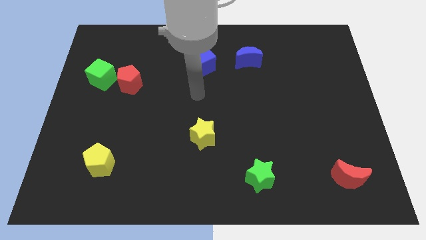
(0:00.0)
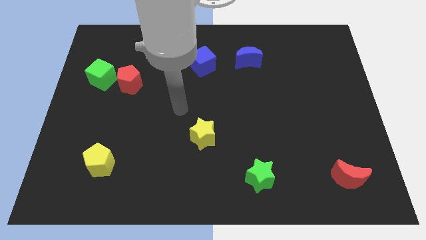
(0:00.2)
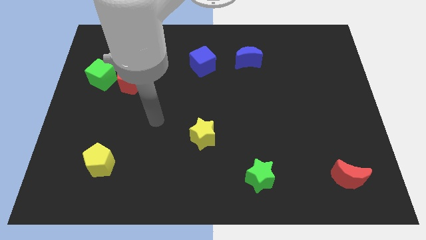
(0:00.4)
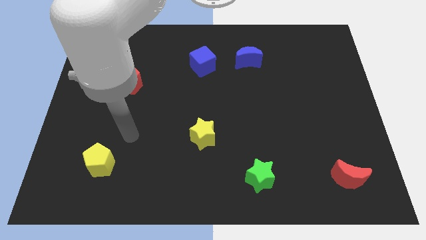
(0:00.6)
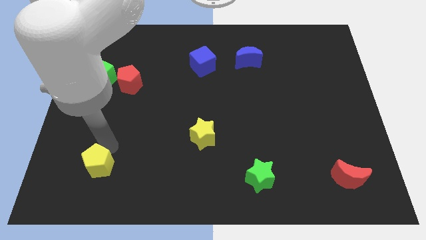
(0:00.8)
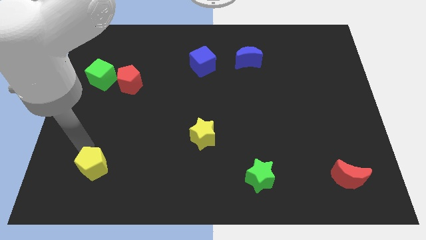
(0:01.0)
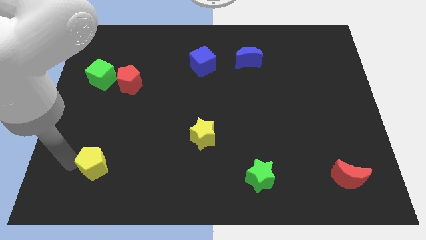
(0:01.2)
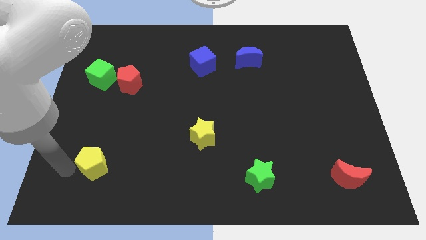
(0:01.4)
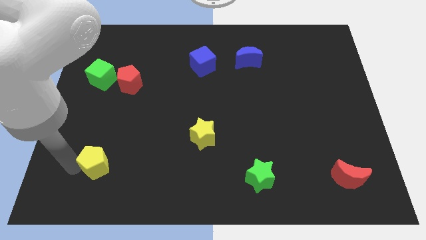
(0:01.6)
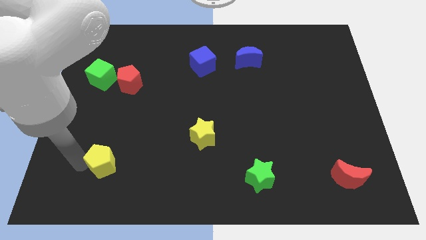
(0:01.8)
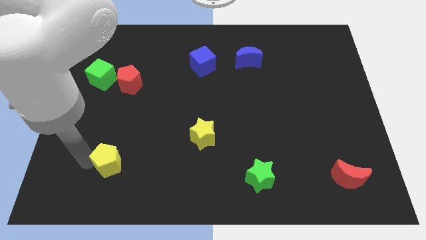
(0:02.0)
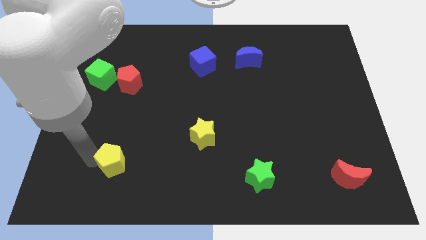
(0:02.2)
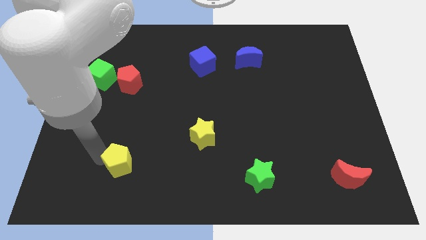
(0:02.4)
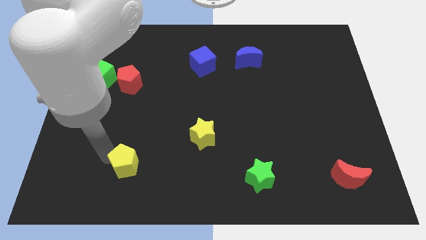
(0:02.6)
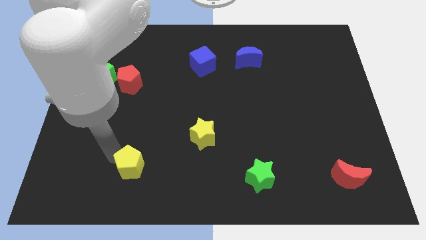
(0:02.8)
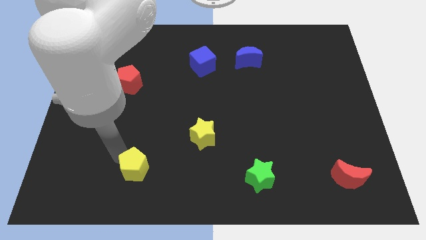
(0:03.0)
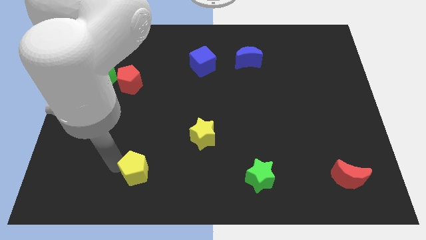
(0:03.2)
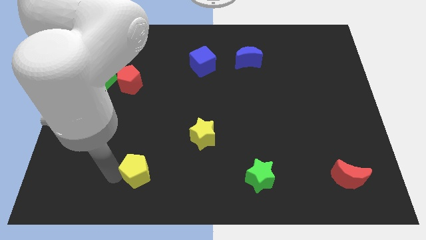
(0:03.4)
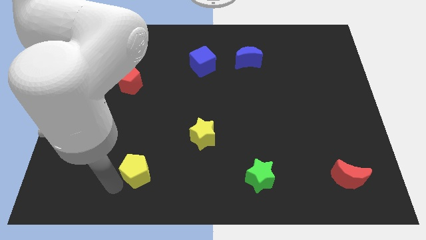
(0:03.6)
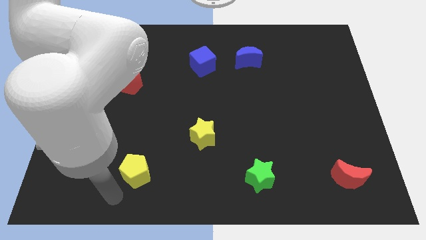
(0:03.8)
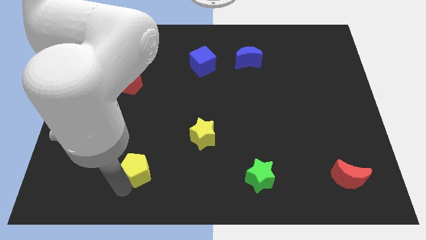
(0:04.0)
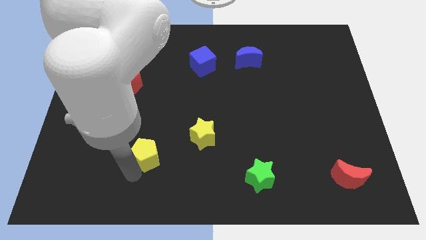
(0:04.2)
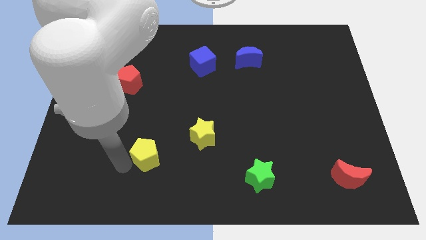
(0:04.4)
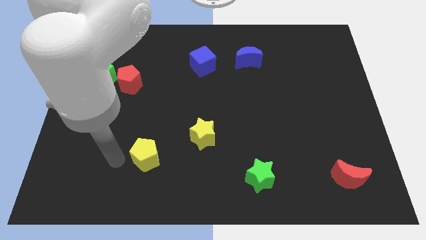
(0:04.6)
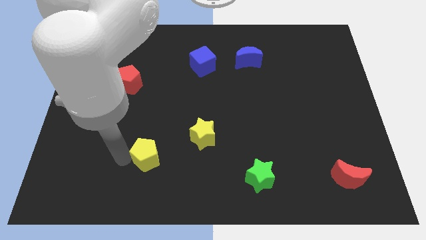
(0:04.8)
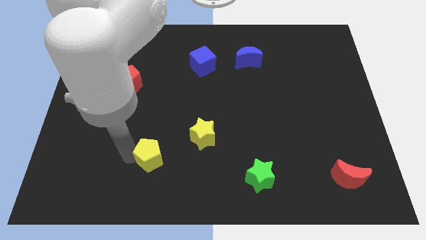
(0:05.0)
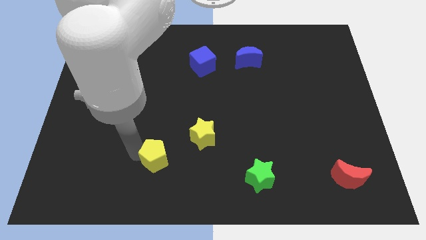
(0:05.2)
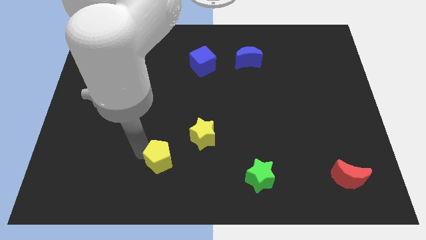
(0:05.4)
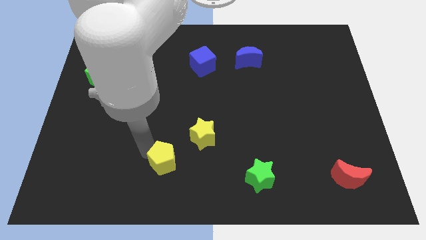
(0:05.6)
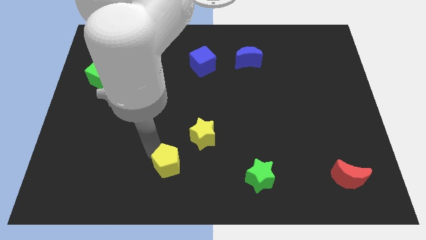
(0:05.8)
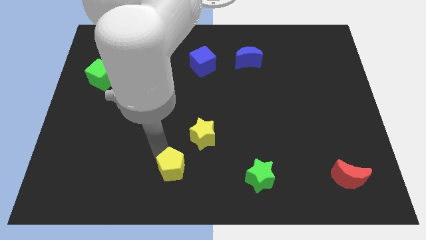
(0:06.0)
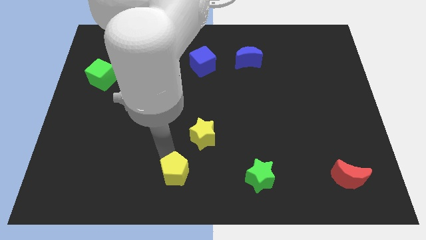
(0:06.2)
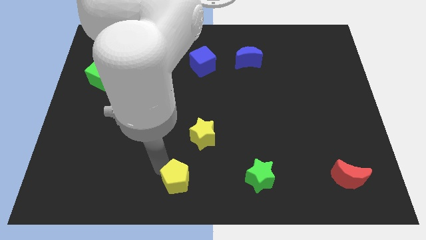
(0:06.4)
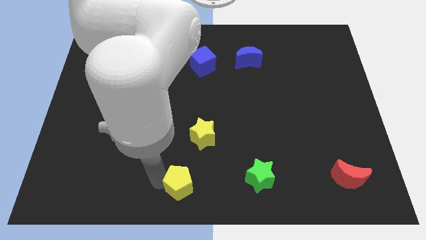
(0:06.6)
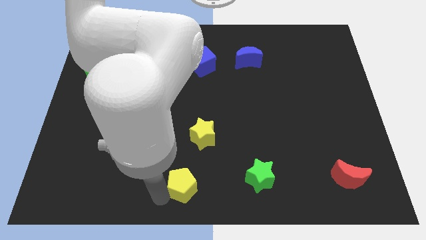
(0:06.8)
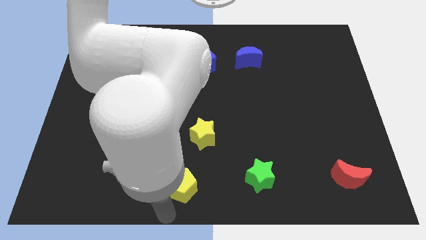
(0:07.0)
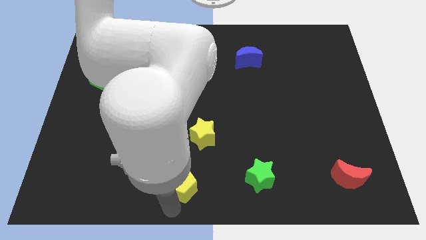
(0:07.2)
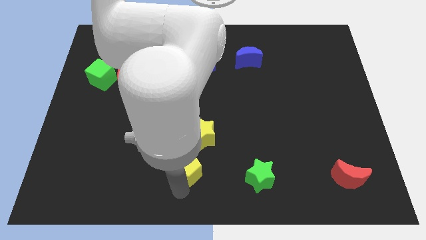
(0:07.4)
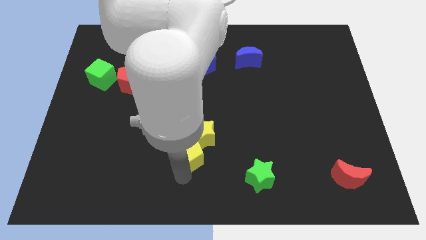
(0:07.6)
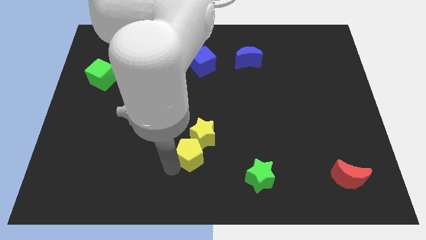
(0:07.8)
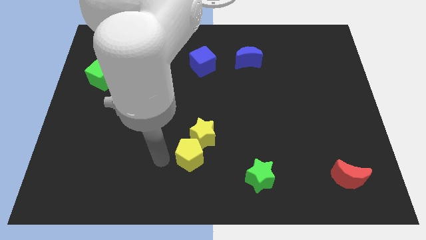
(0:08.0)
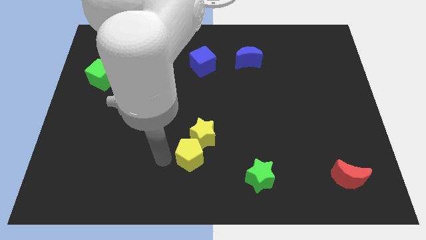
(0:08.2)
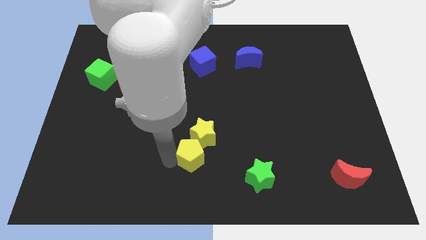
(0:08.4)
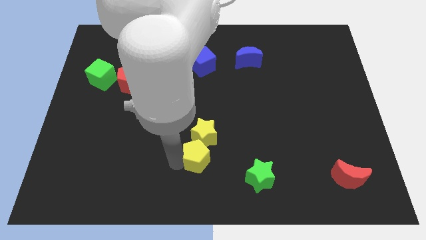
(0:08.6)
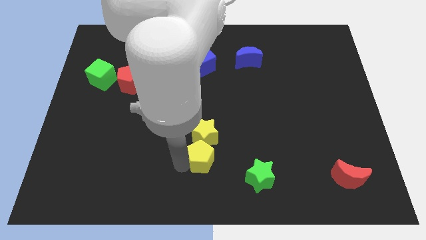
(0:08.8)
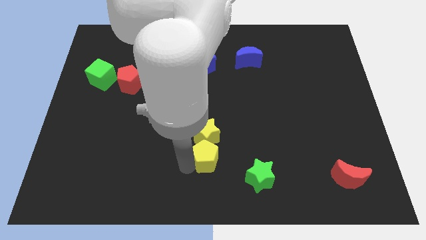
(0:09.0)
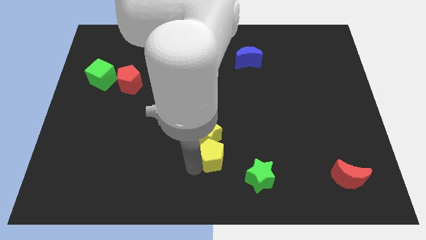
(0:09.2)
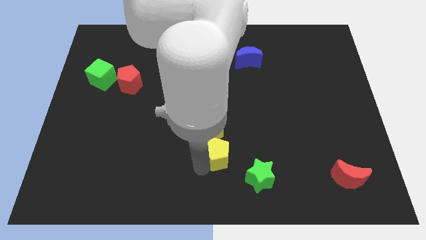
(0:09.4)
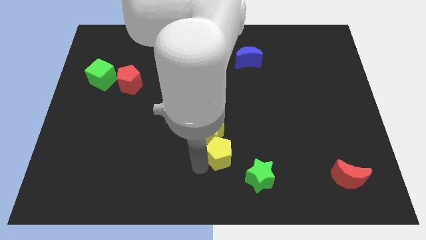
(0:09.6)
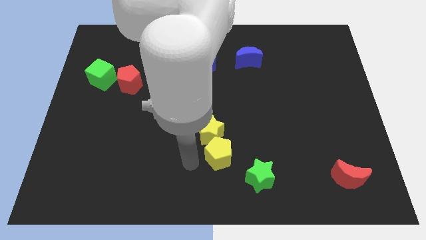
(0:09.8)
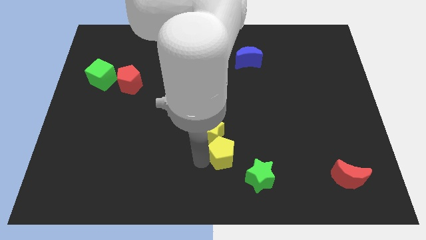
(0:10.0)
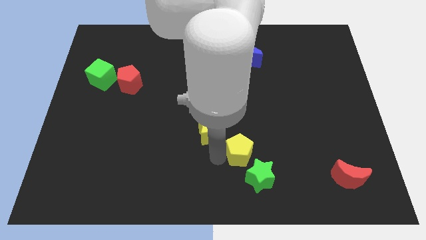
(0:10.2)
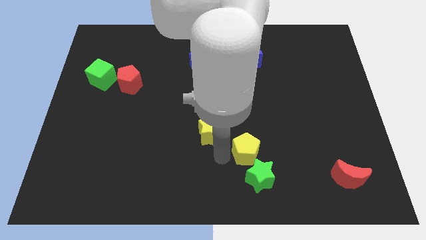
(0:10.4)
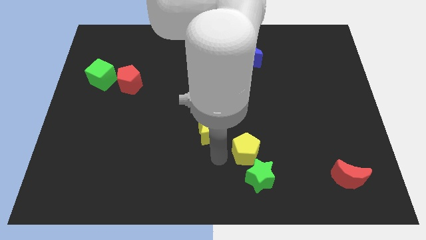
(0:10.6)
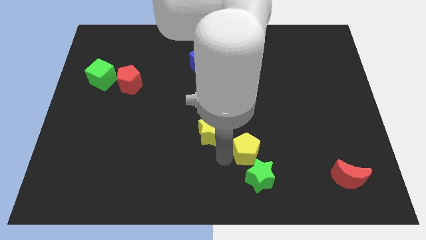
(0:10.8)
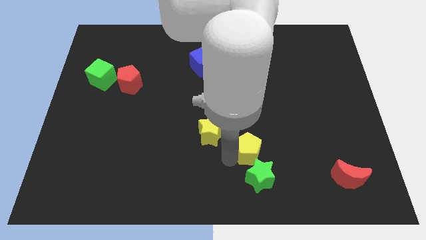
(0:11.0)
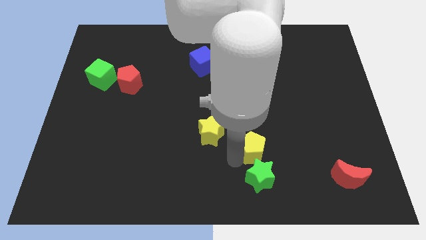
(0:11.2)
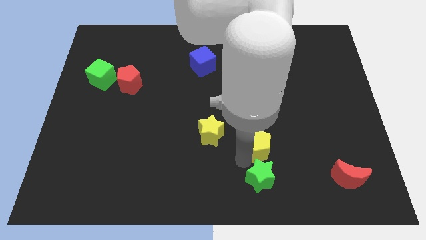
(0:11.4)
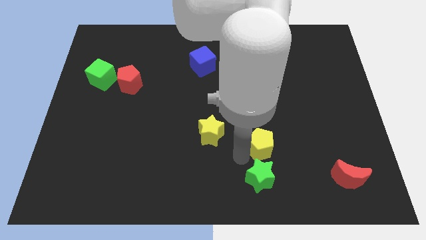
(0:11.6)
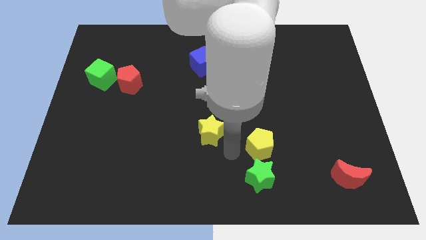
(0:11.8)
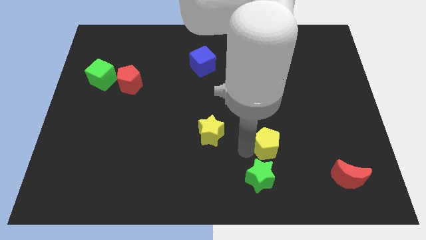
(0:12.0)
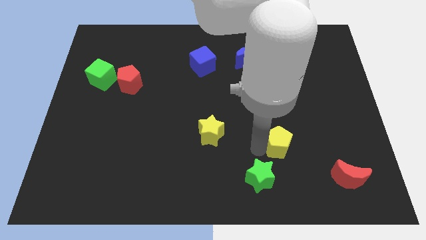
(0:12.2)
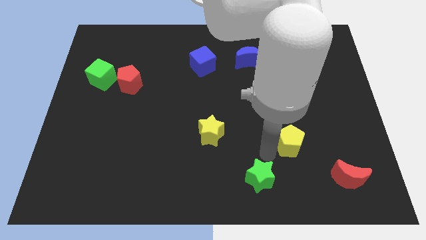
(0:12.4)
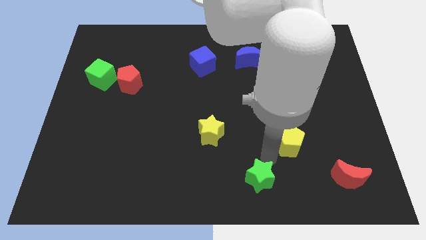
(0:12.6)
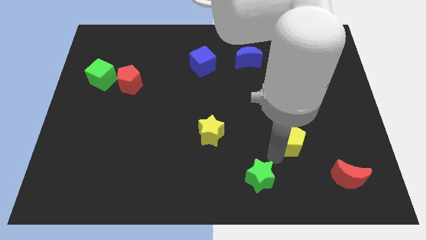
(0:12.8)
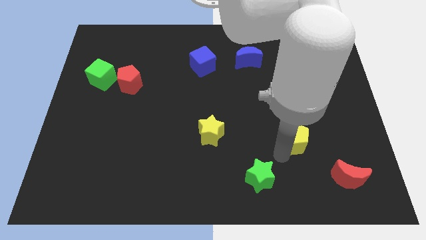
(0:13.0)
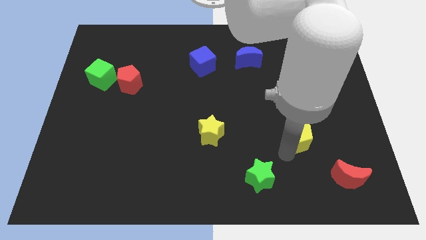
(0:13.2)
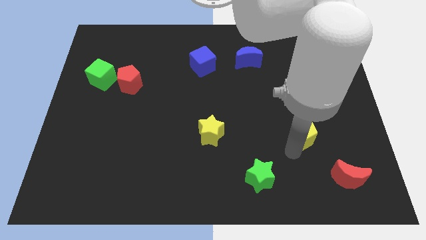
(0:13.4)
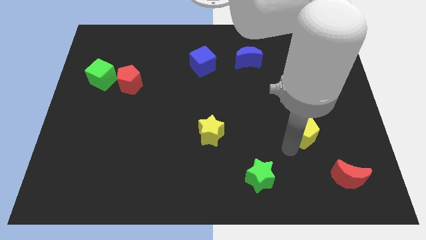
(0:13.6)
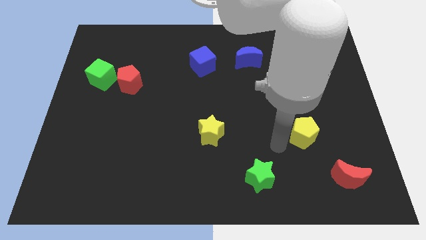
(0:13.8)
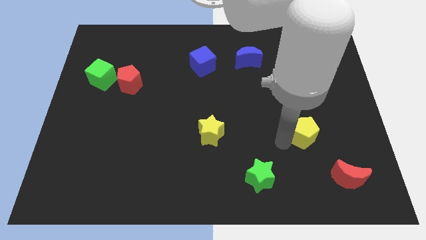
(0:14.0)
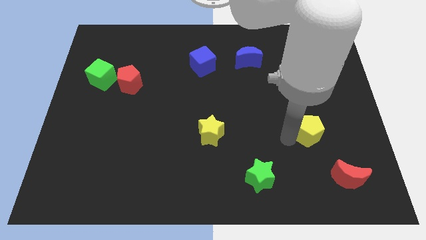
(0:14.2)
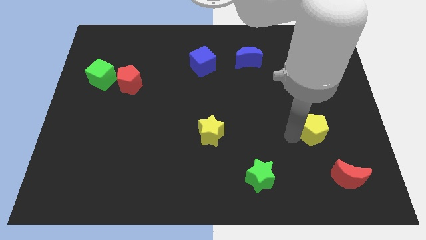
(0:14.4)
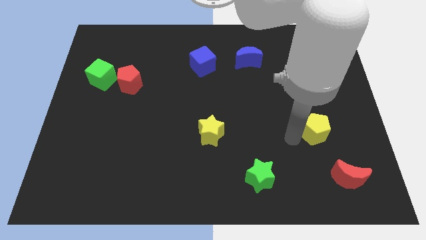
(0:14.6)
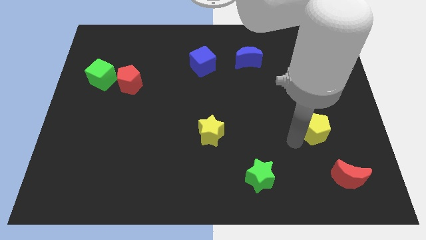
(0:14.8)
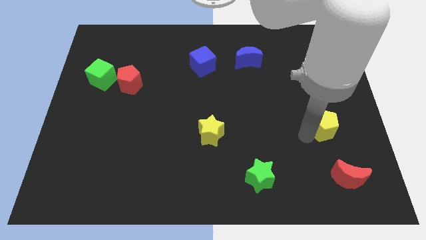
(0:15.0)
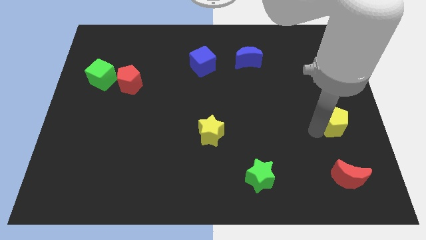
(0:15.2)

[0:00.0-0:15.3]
put the yellow pentagon to the right side of the board
